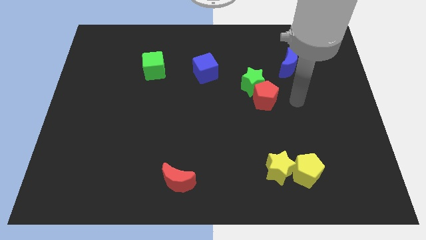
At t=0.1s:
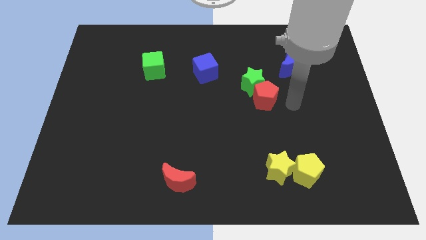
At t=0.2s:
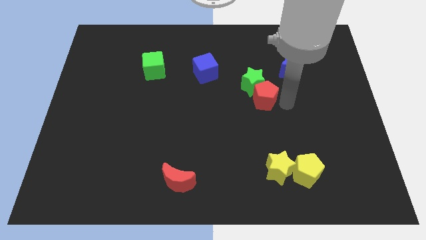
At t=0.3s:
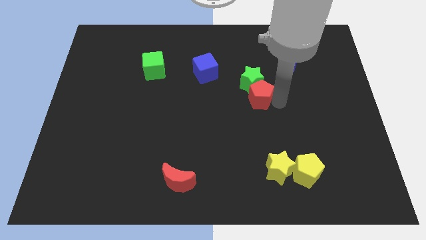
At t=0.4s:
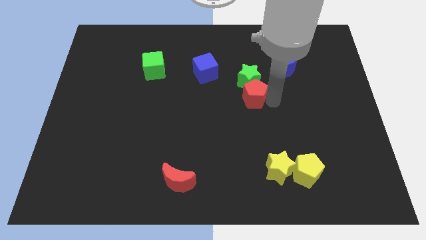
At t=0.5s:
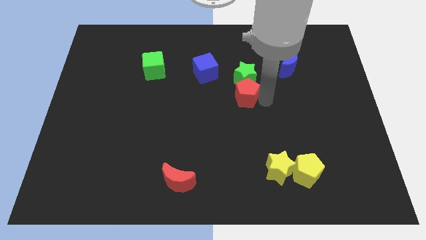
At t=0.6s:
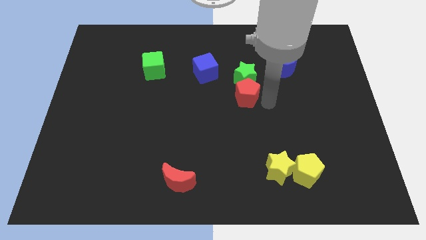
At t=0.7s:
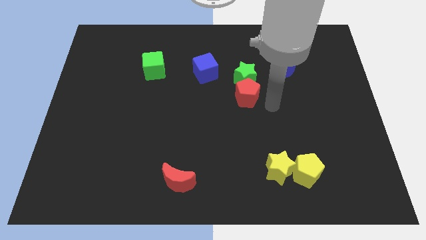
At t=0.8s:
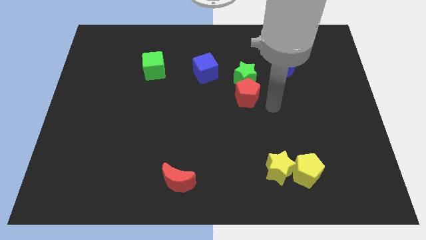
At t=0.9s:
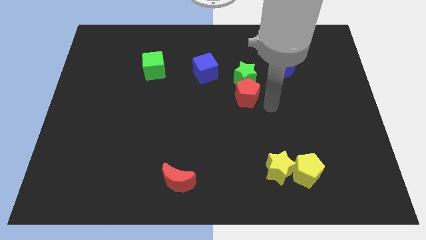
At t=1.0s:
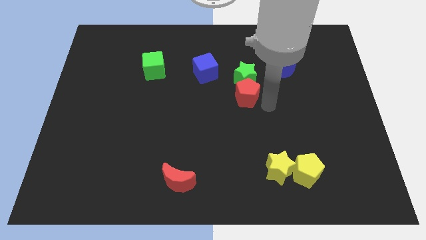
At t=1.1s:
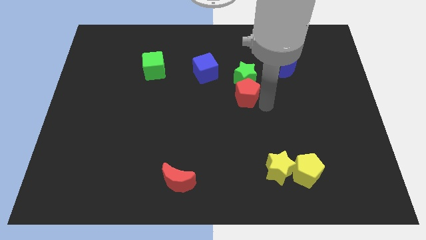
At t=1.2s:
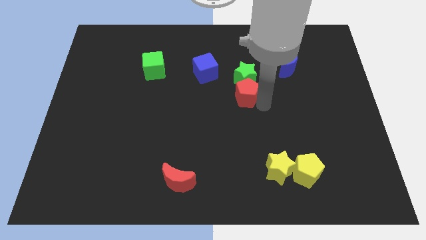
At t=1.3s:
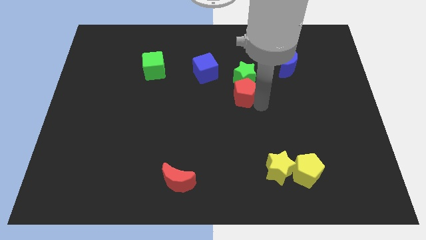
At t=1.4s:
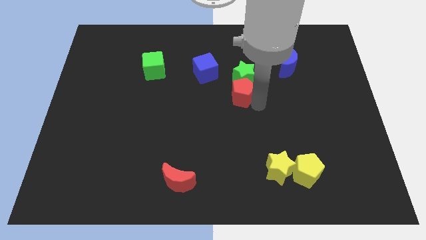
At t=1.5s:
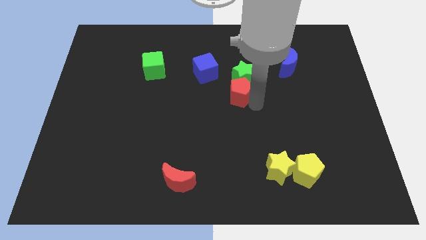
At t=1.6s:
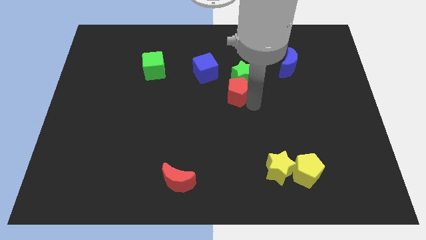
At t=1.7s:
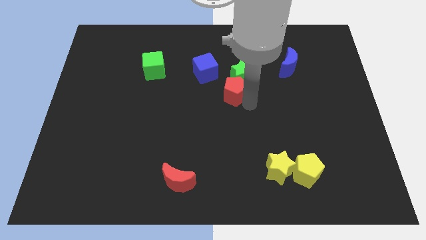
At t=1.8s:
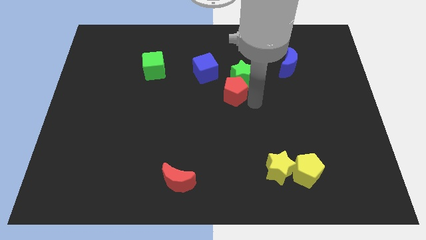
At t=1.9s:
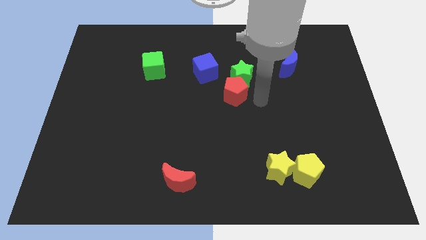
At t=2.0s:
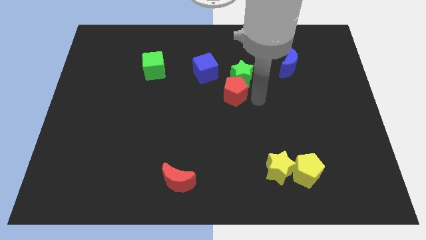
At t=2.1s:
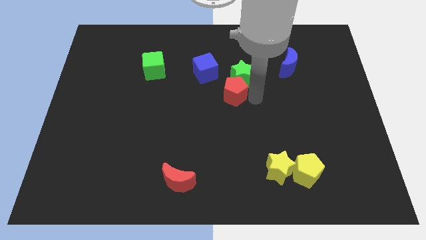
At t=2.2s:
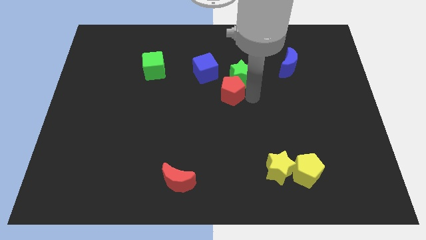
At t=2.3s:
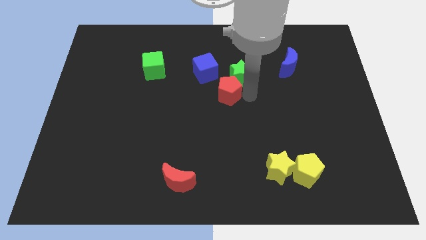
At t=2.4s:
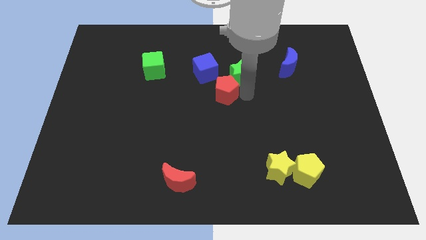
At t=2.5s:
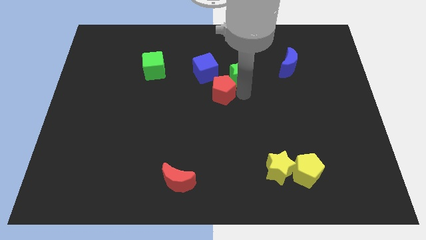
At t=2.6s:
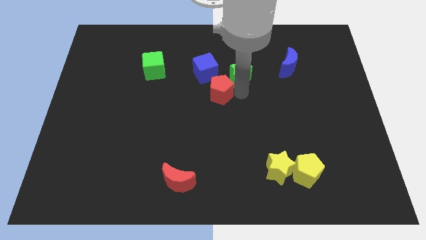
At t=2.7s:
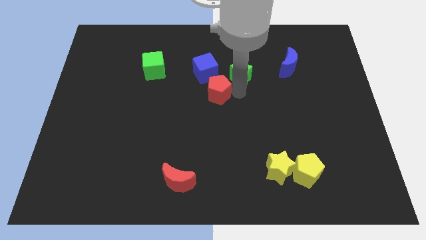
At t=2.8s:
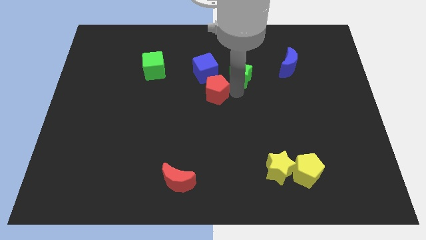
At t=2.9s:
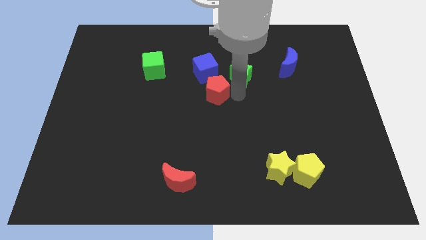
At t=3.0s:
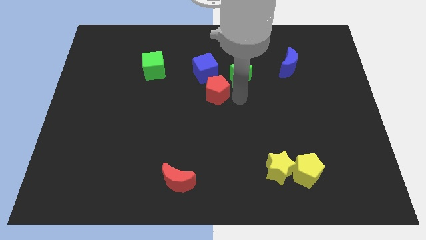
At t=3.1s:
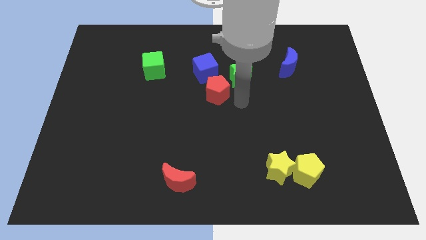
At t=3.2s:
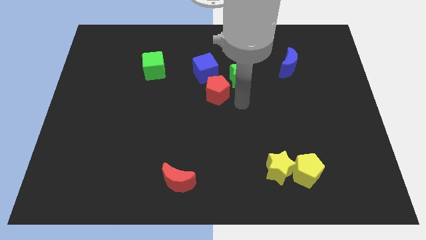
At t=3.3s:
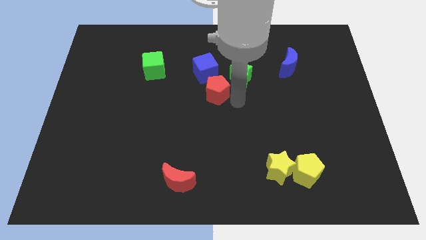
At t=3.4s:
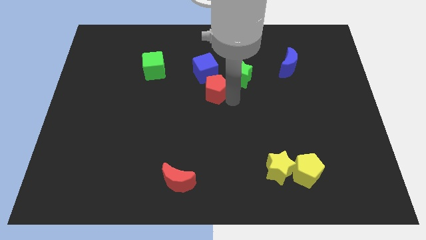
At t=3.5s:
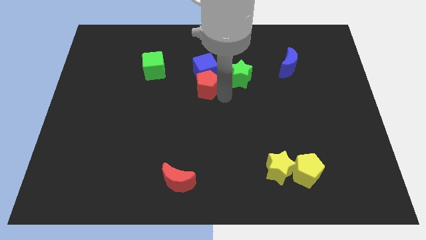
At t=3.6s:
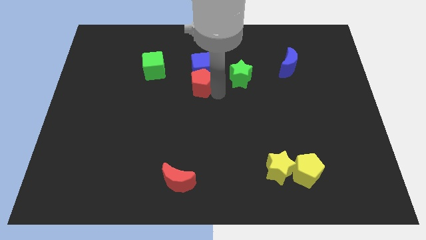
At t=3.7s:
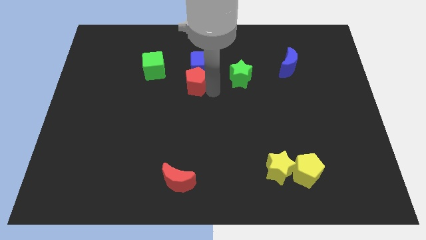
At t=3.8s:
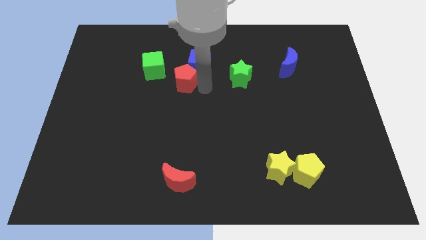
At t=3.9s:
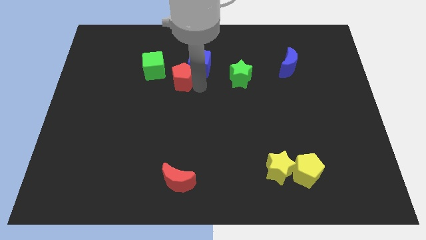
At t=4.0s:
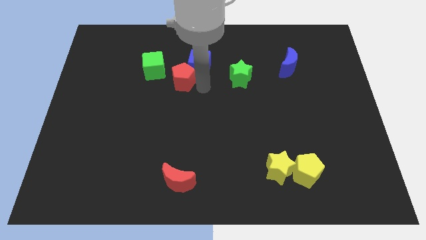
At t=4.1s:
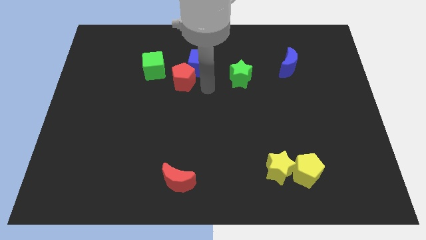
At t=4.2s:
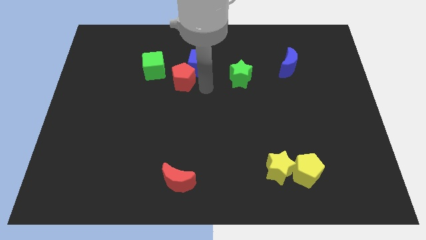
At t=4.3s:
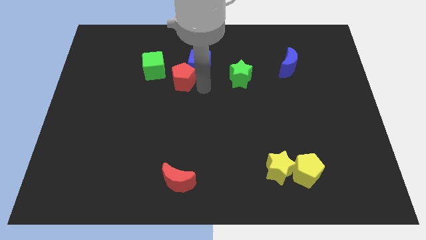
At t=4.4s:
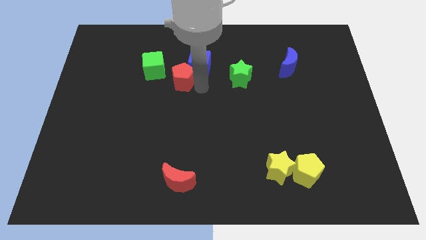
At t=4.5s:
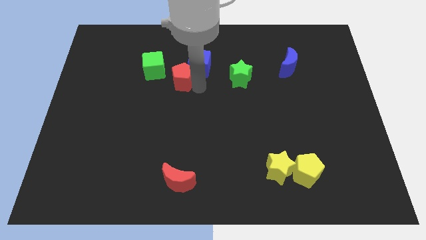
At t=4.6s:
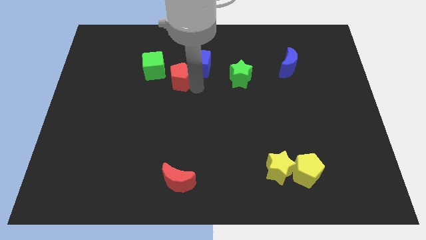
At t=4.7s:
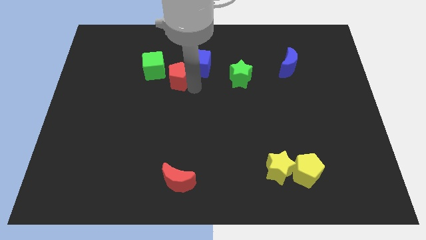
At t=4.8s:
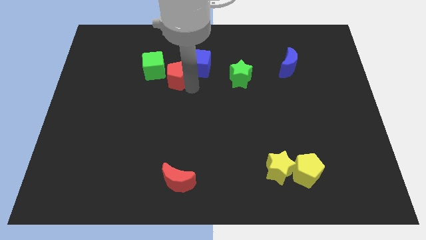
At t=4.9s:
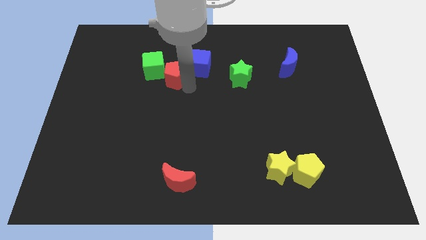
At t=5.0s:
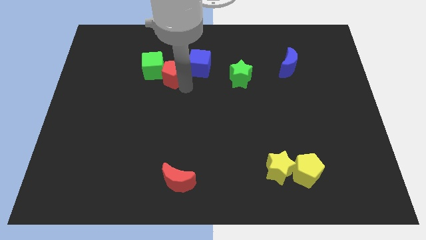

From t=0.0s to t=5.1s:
put the red pentagon towards the green cube

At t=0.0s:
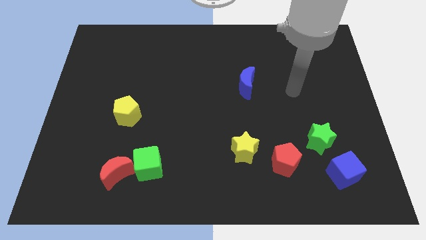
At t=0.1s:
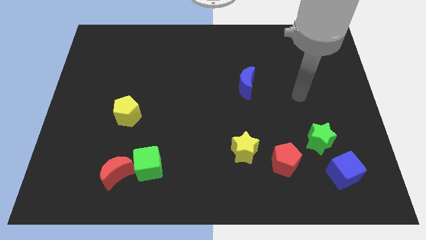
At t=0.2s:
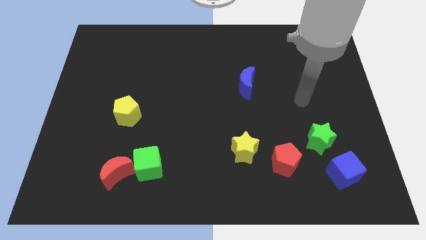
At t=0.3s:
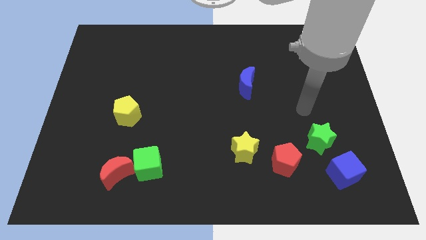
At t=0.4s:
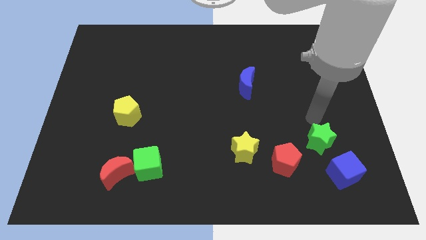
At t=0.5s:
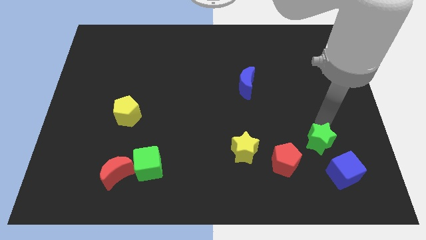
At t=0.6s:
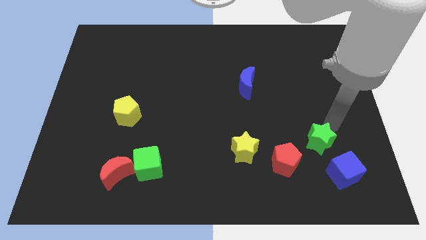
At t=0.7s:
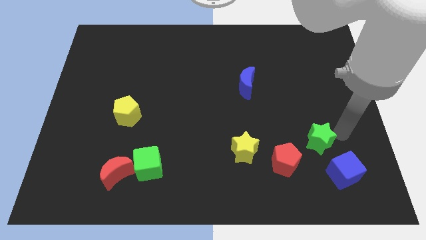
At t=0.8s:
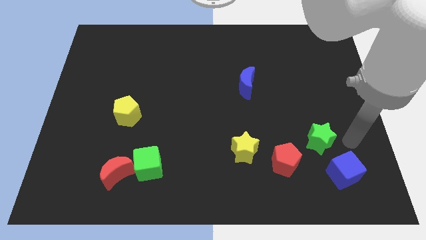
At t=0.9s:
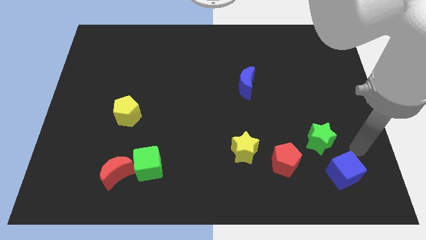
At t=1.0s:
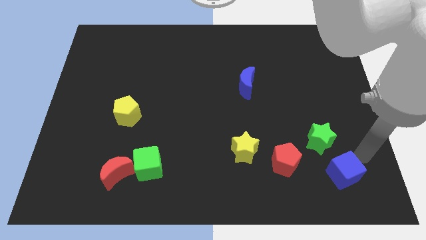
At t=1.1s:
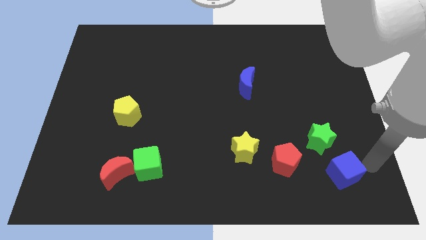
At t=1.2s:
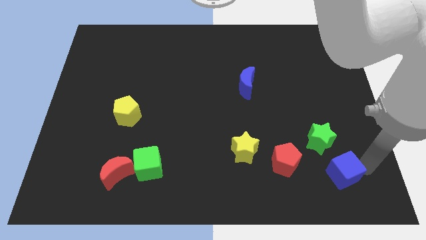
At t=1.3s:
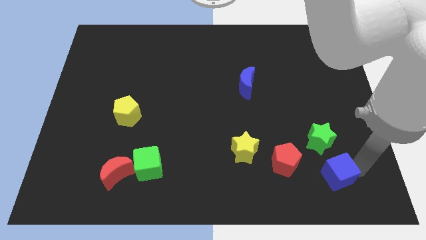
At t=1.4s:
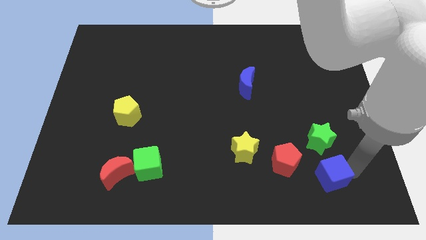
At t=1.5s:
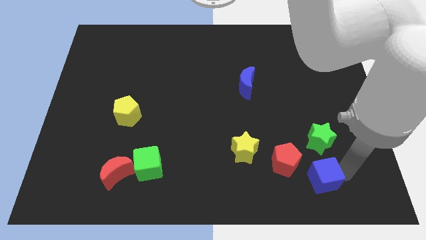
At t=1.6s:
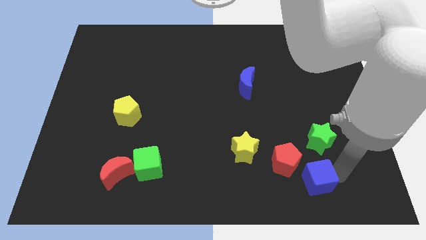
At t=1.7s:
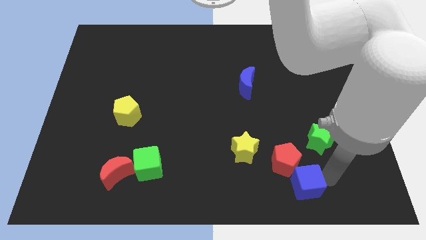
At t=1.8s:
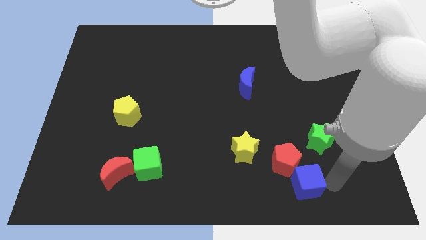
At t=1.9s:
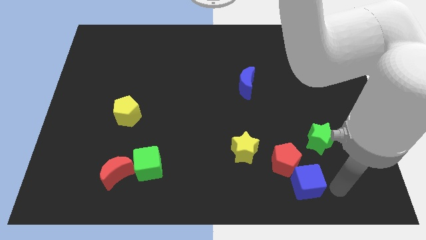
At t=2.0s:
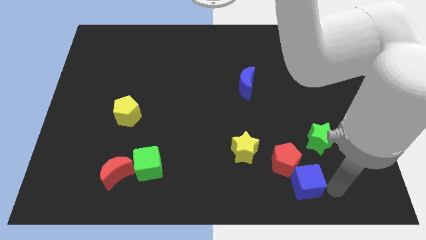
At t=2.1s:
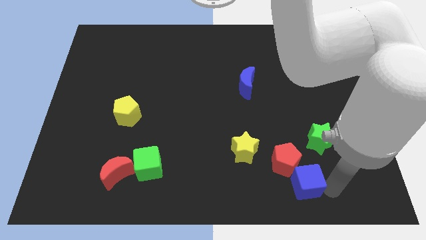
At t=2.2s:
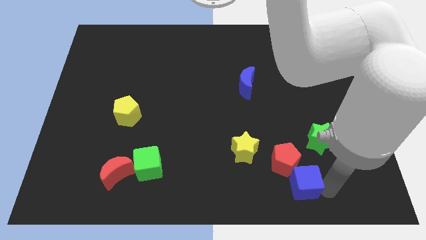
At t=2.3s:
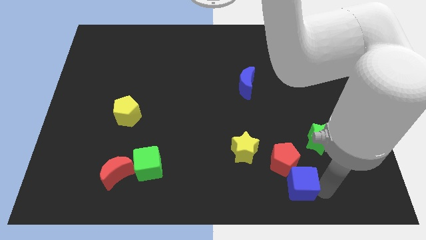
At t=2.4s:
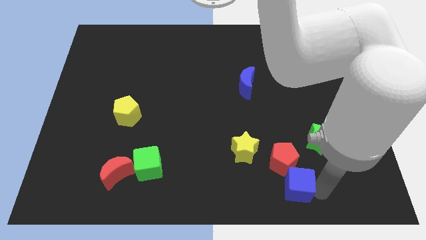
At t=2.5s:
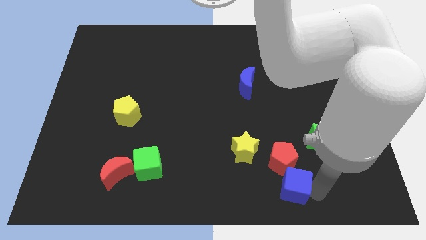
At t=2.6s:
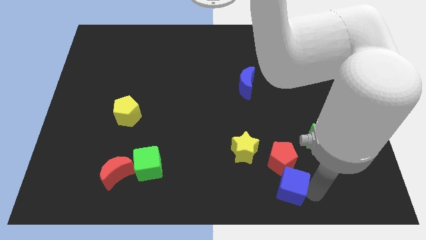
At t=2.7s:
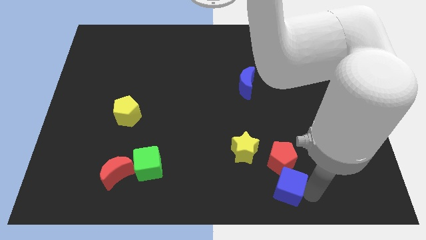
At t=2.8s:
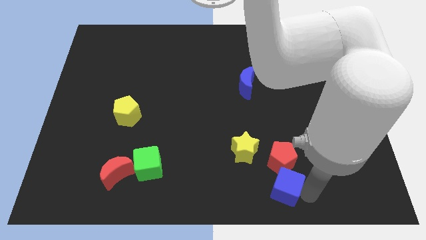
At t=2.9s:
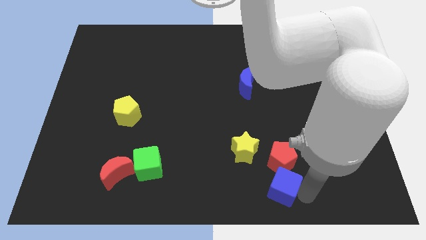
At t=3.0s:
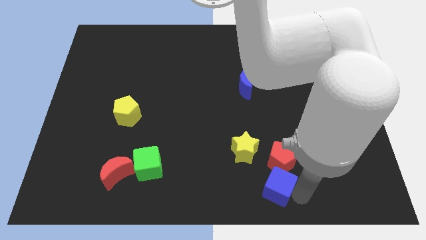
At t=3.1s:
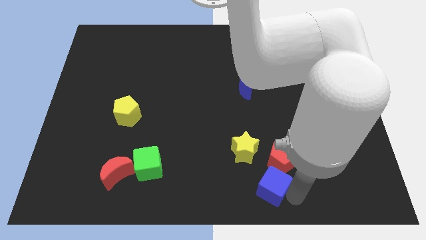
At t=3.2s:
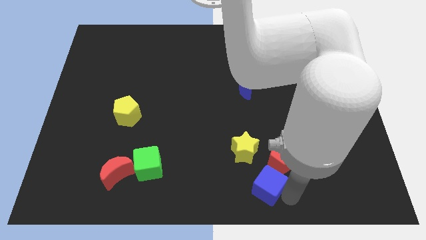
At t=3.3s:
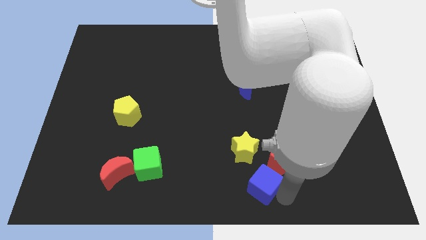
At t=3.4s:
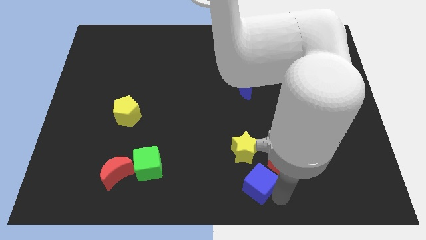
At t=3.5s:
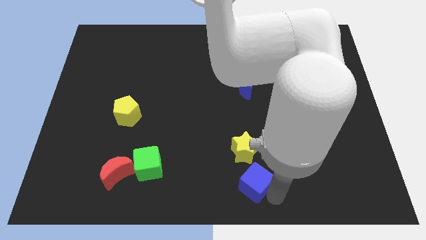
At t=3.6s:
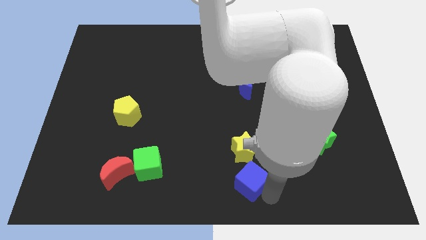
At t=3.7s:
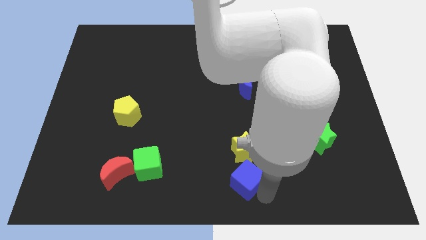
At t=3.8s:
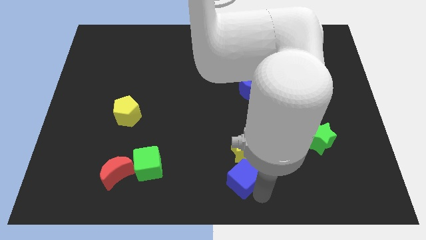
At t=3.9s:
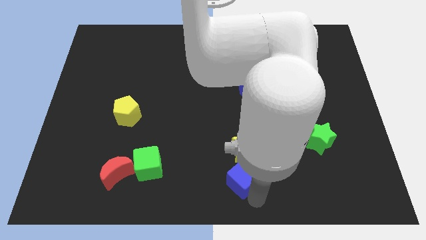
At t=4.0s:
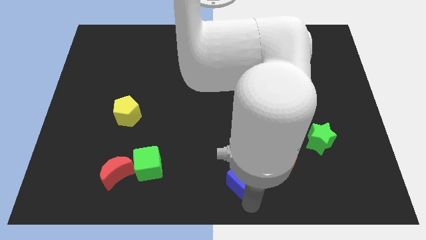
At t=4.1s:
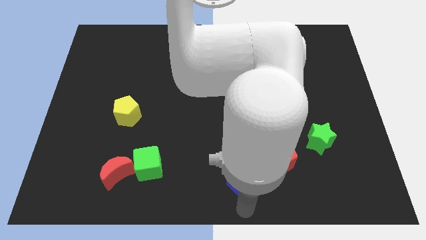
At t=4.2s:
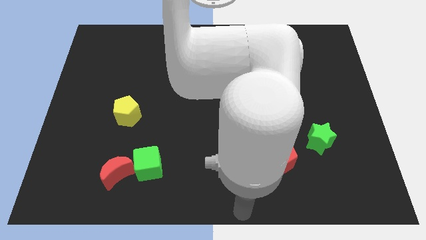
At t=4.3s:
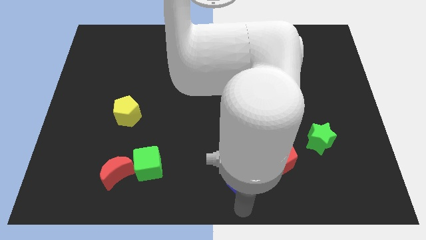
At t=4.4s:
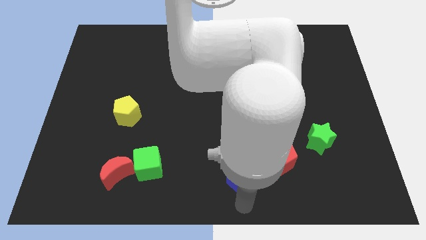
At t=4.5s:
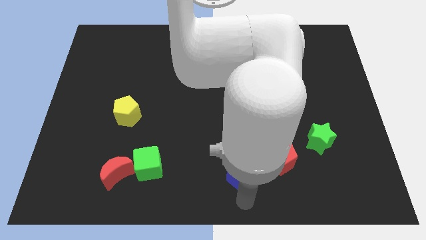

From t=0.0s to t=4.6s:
move the blue cube close to the yellow star
